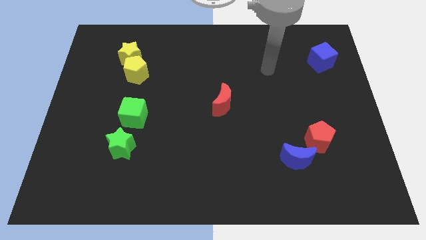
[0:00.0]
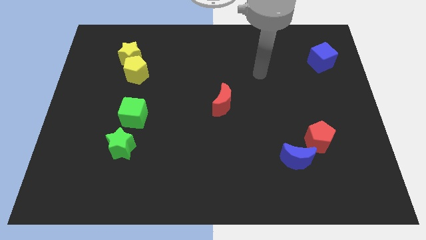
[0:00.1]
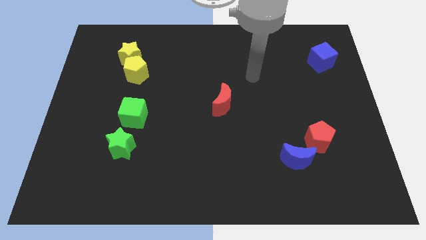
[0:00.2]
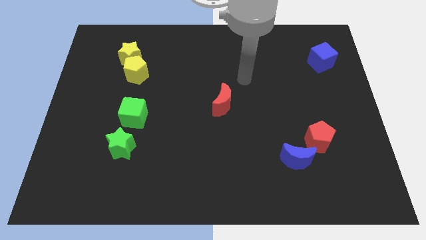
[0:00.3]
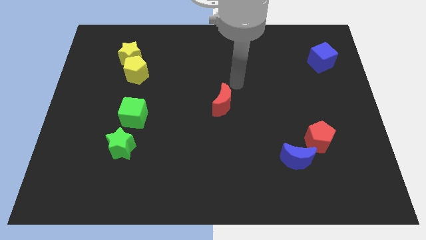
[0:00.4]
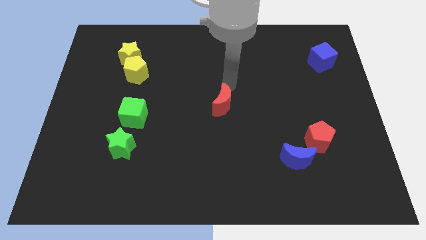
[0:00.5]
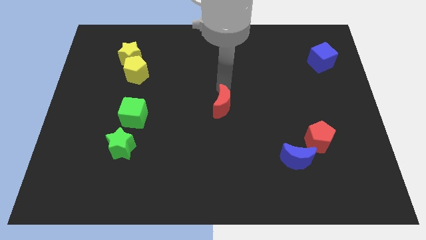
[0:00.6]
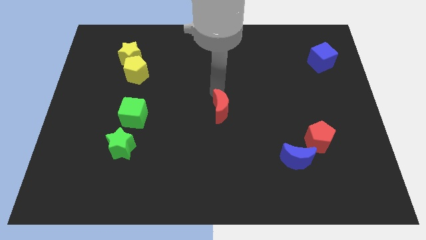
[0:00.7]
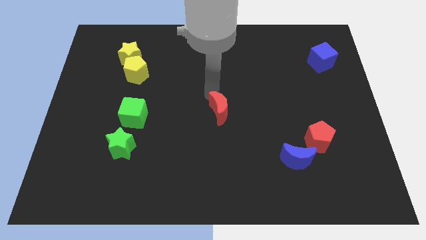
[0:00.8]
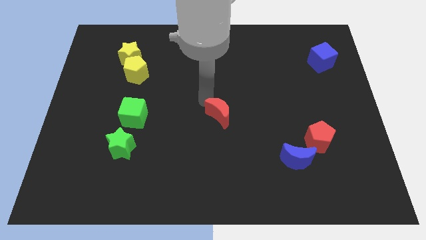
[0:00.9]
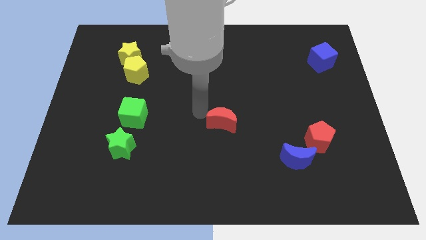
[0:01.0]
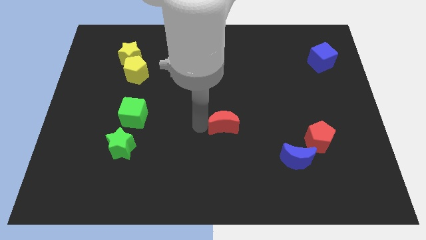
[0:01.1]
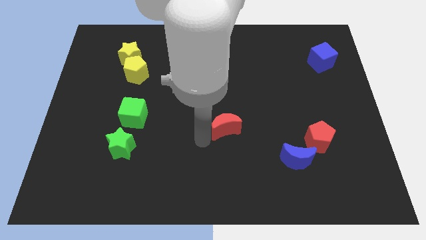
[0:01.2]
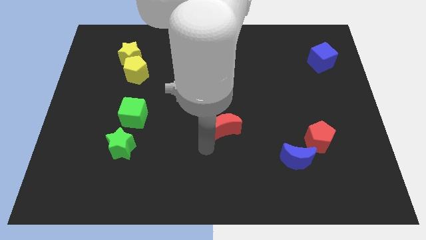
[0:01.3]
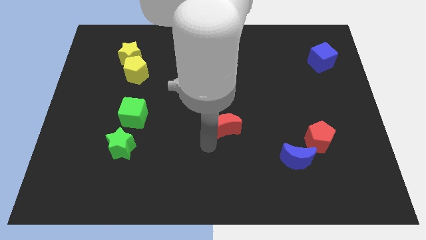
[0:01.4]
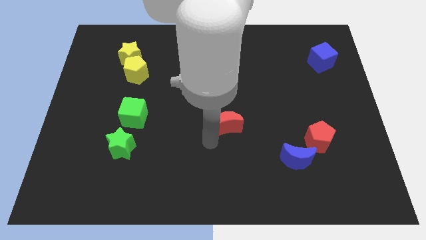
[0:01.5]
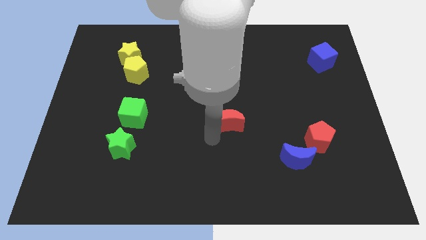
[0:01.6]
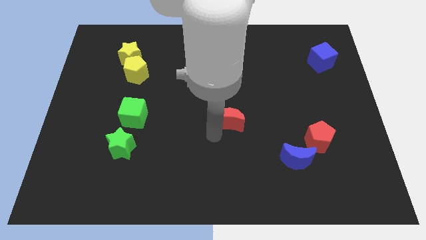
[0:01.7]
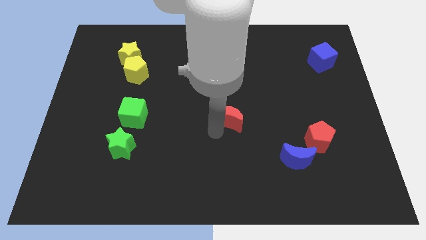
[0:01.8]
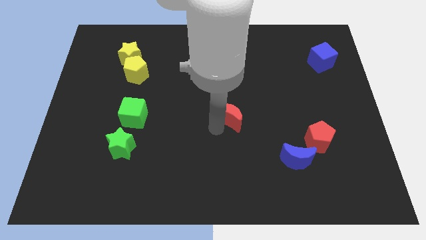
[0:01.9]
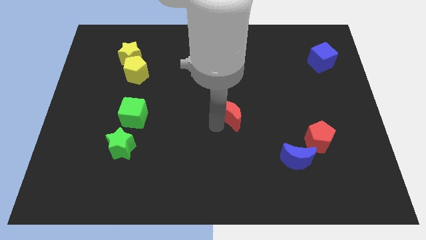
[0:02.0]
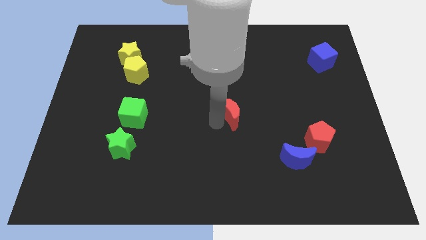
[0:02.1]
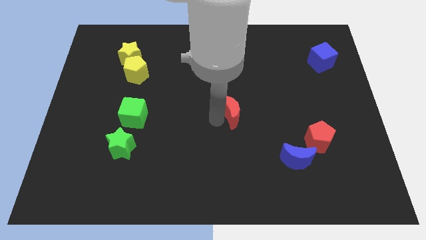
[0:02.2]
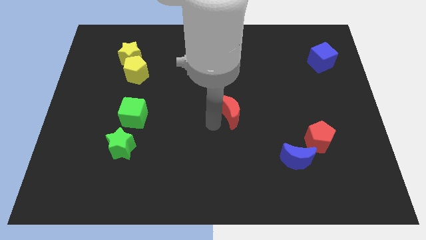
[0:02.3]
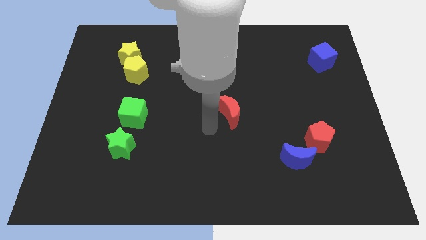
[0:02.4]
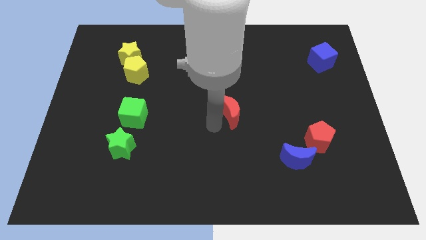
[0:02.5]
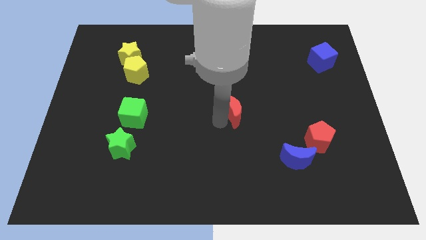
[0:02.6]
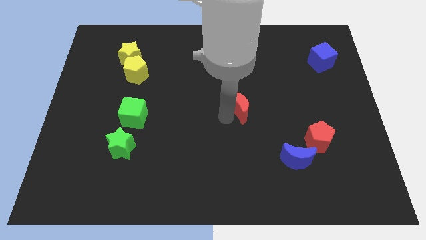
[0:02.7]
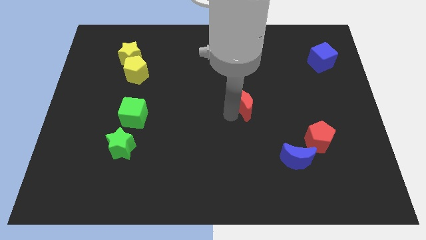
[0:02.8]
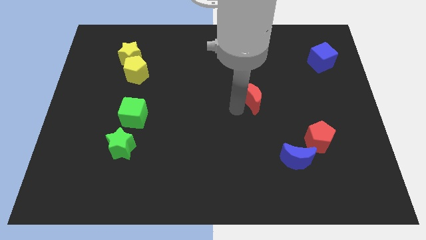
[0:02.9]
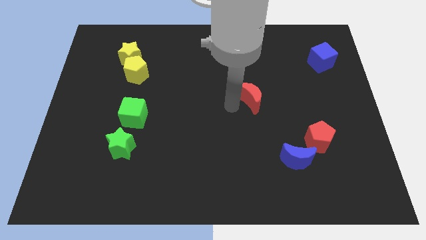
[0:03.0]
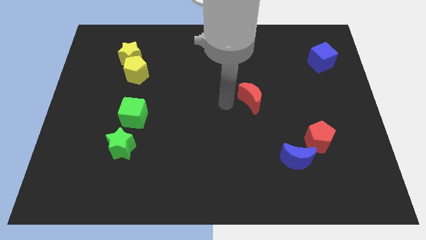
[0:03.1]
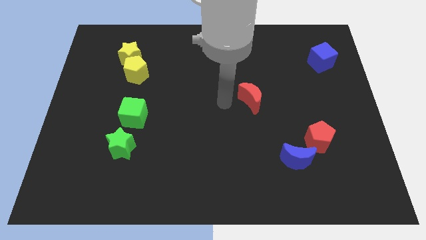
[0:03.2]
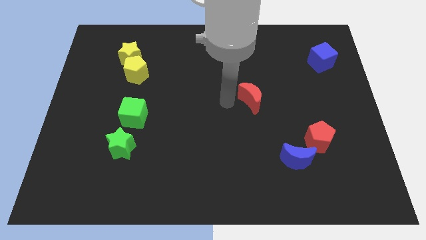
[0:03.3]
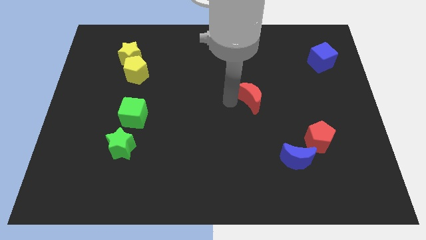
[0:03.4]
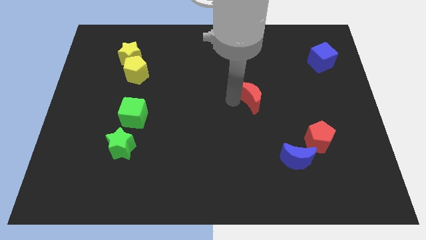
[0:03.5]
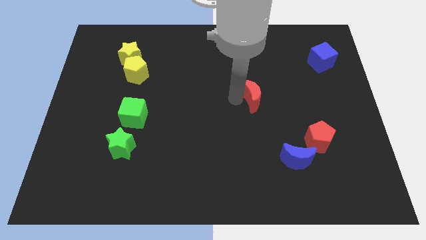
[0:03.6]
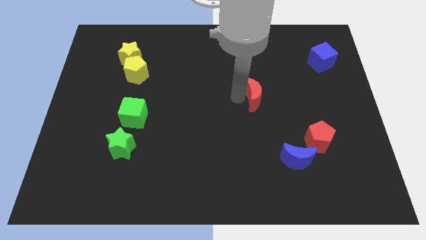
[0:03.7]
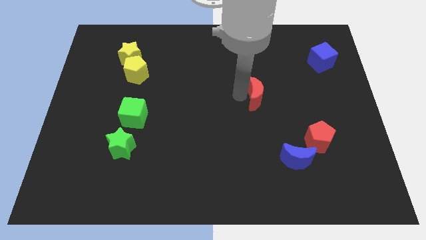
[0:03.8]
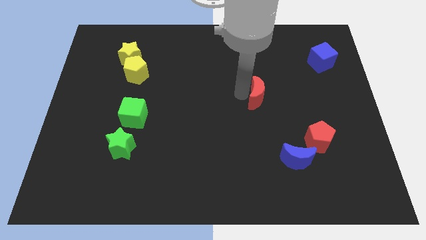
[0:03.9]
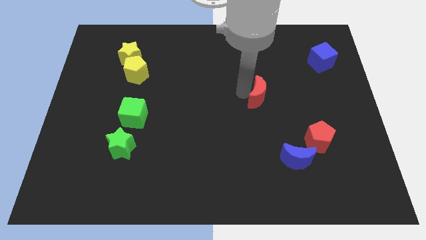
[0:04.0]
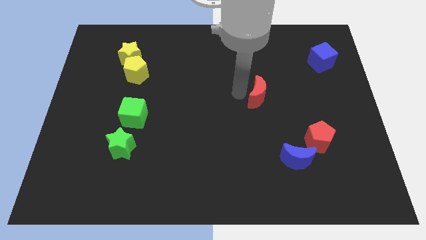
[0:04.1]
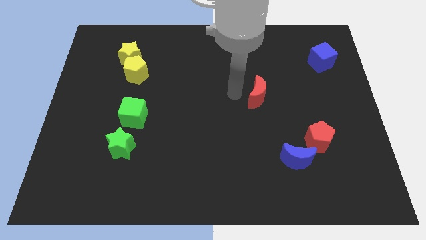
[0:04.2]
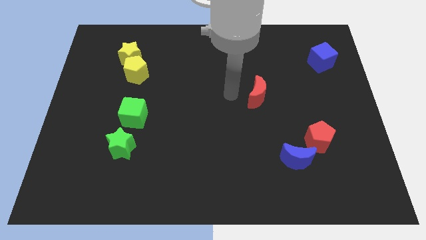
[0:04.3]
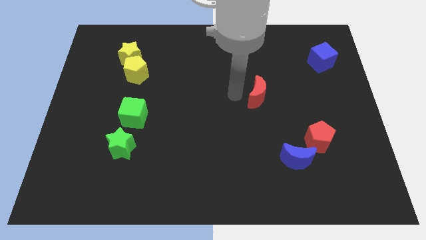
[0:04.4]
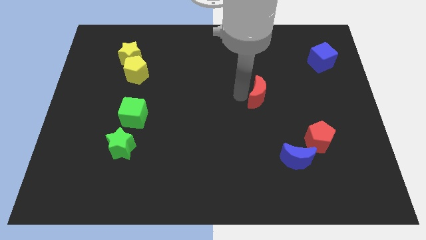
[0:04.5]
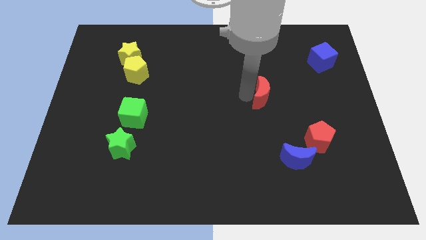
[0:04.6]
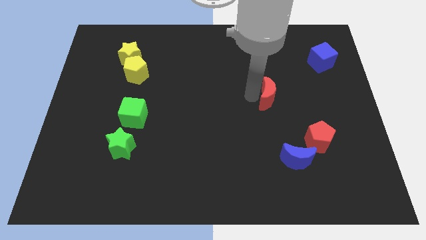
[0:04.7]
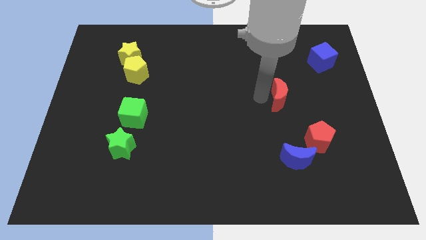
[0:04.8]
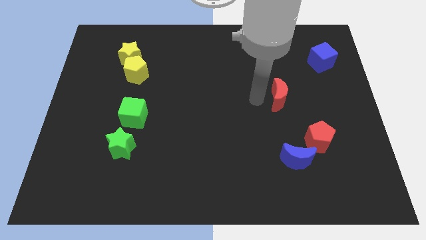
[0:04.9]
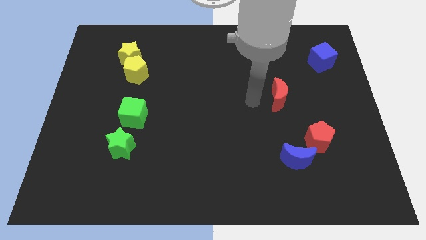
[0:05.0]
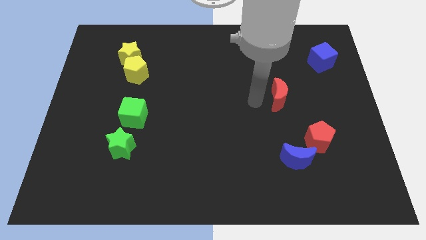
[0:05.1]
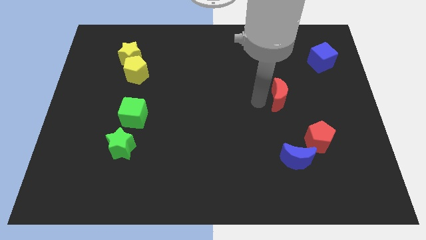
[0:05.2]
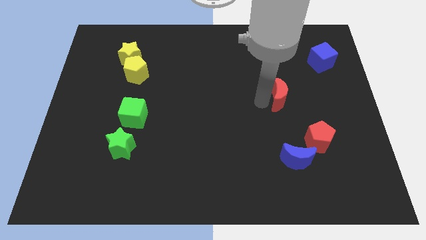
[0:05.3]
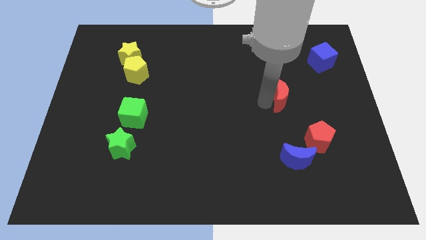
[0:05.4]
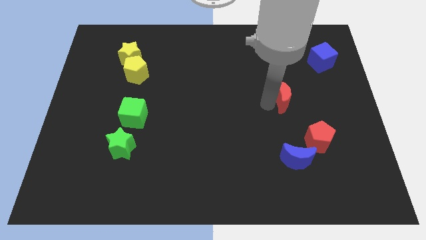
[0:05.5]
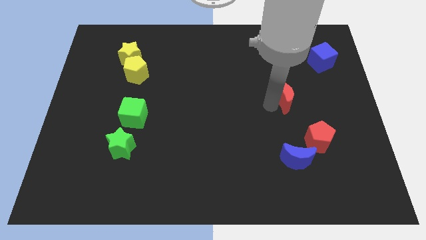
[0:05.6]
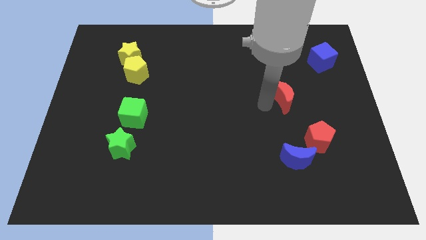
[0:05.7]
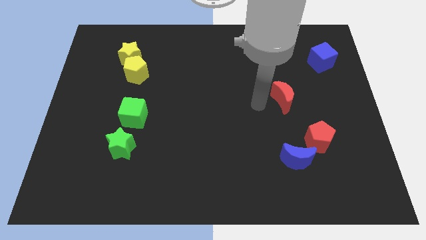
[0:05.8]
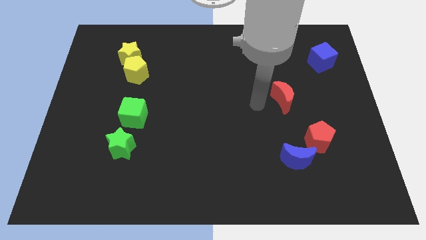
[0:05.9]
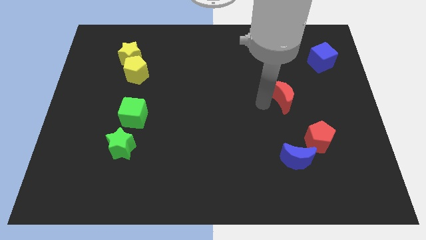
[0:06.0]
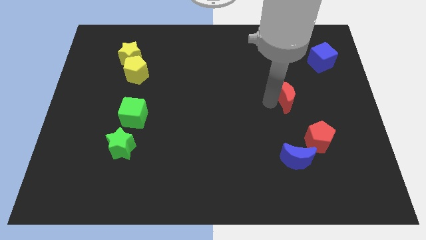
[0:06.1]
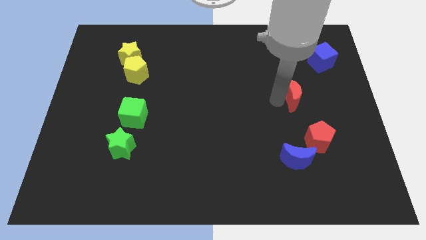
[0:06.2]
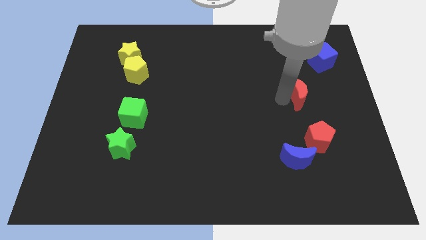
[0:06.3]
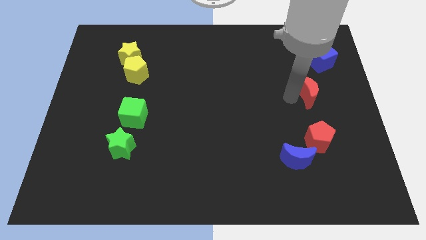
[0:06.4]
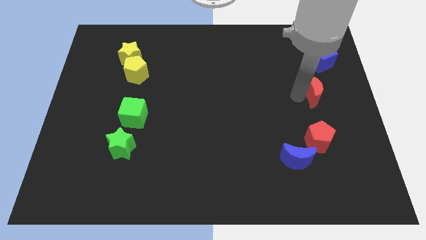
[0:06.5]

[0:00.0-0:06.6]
slide the red moon to the bottom of the blue cube

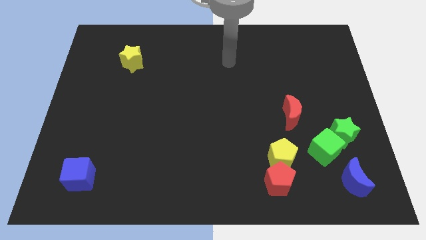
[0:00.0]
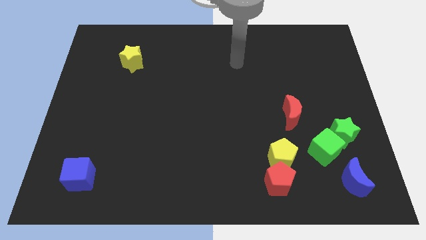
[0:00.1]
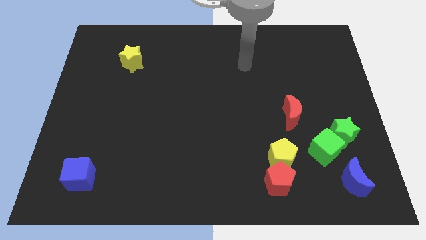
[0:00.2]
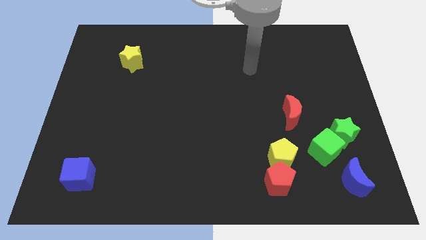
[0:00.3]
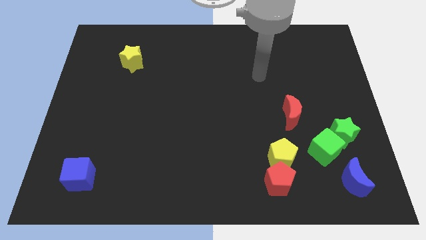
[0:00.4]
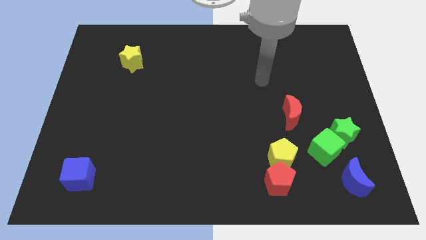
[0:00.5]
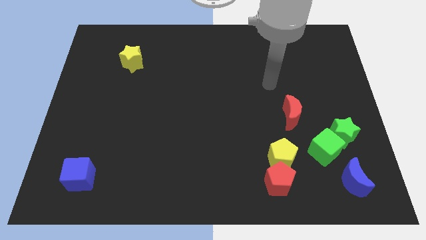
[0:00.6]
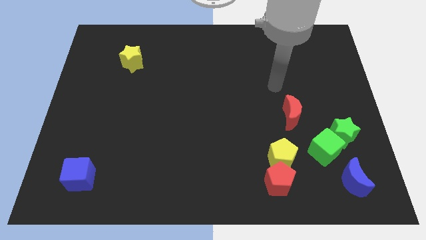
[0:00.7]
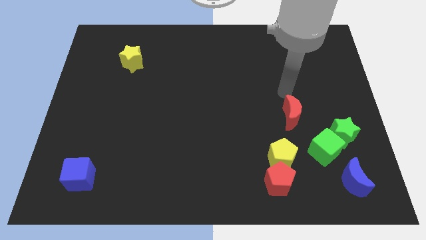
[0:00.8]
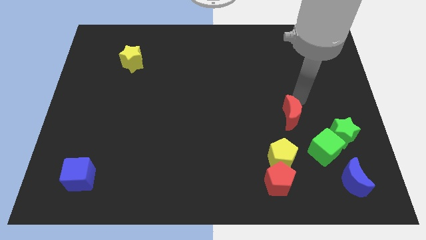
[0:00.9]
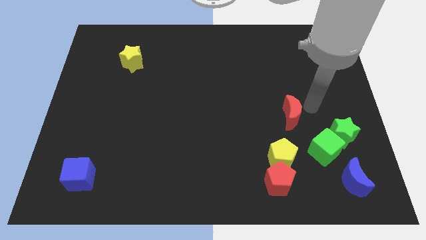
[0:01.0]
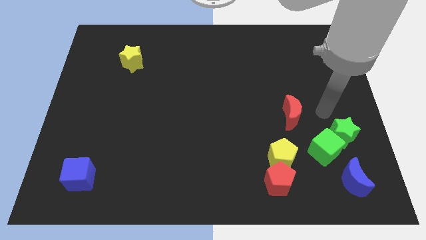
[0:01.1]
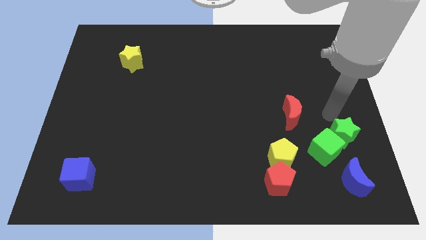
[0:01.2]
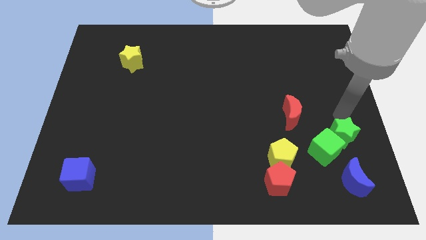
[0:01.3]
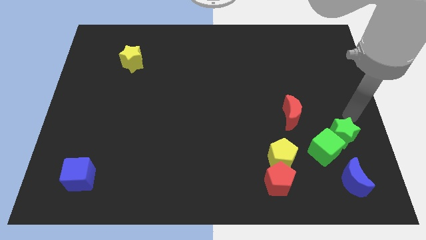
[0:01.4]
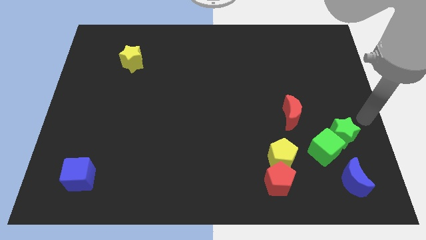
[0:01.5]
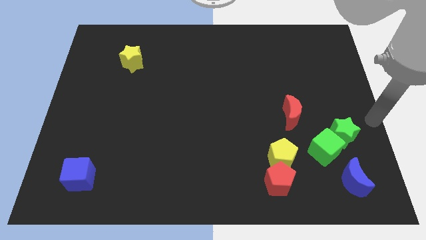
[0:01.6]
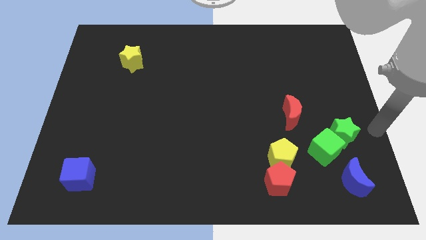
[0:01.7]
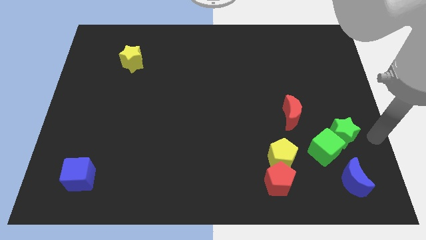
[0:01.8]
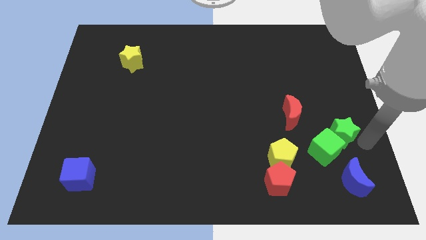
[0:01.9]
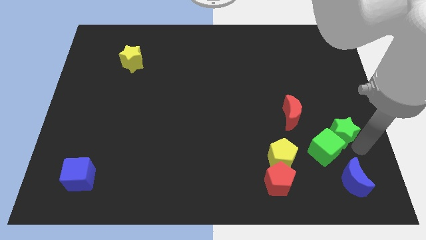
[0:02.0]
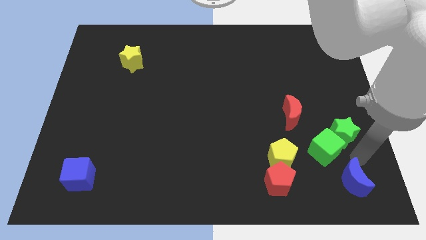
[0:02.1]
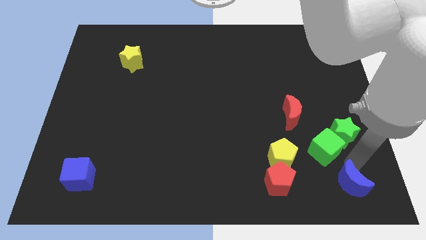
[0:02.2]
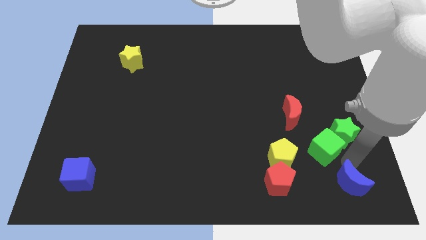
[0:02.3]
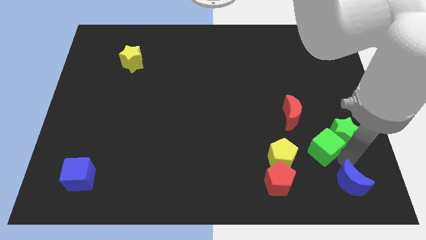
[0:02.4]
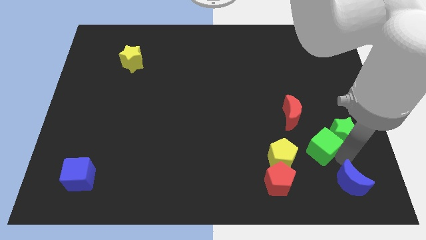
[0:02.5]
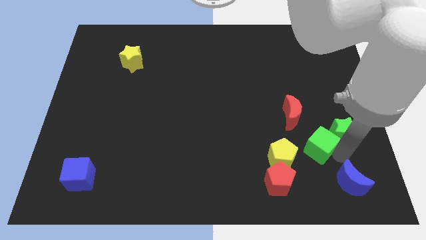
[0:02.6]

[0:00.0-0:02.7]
move the green cube to the top right side of the yellow pentagon
